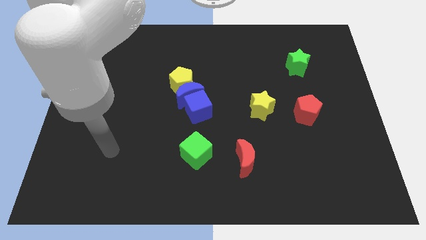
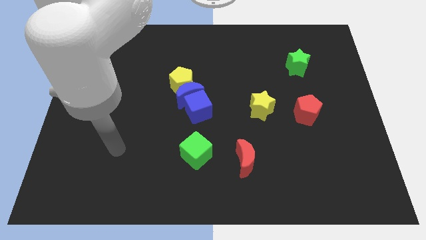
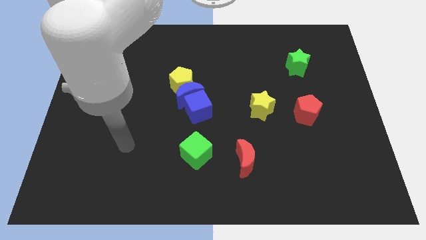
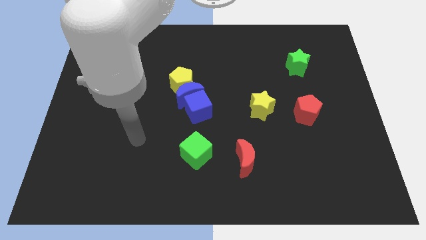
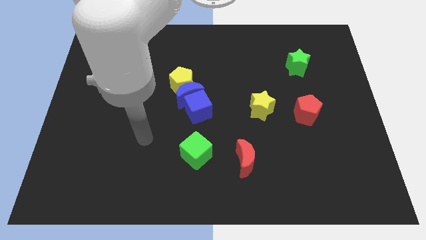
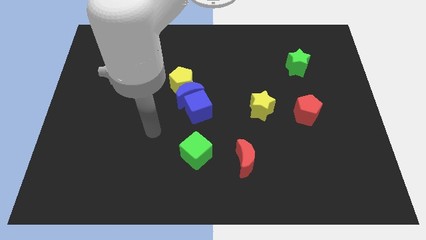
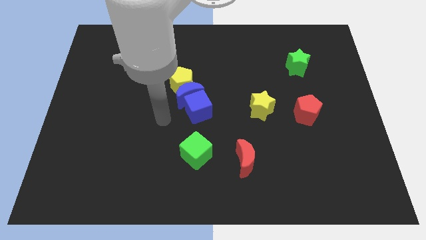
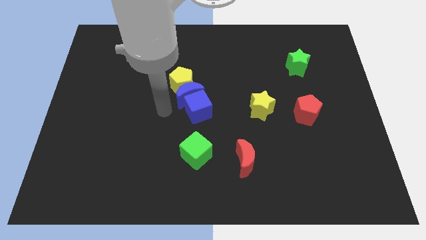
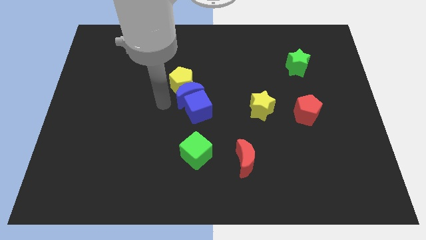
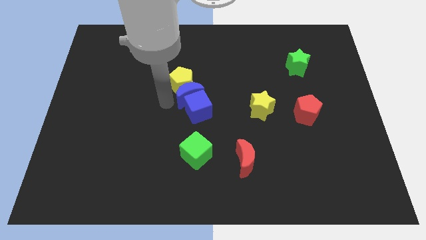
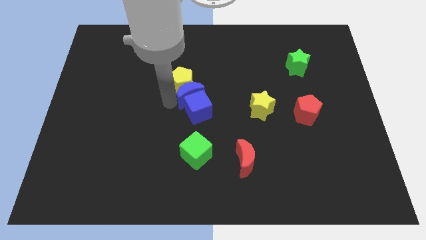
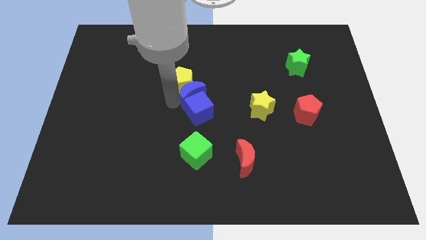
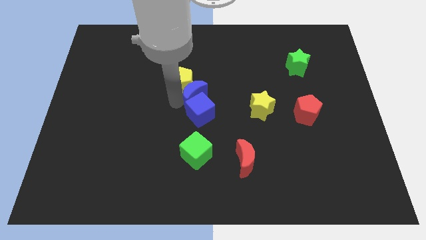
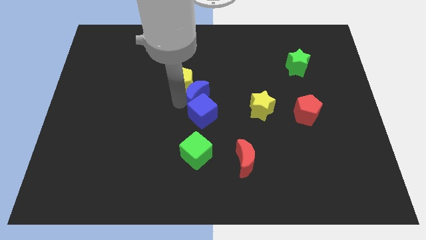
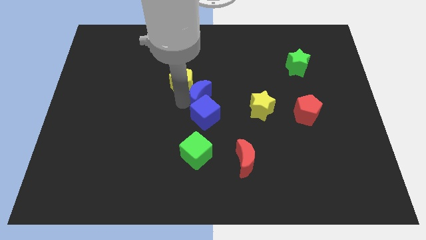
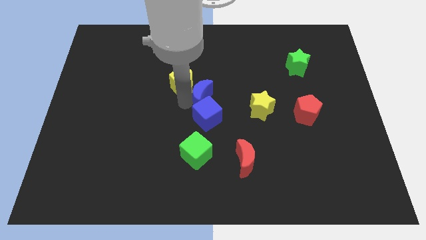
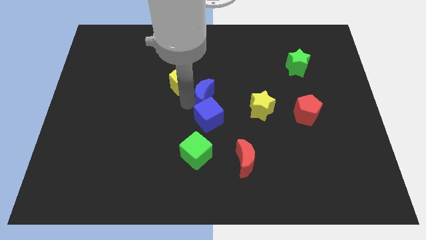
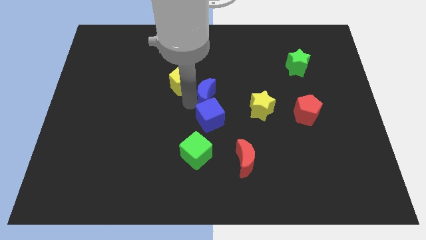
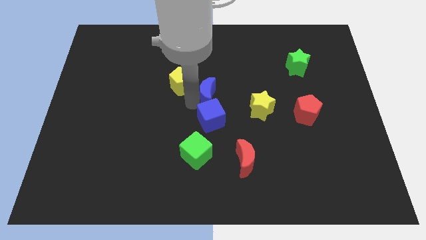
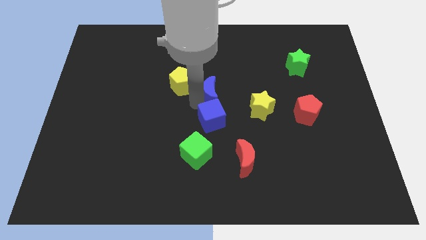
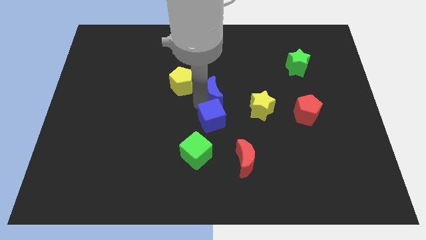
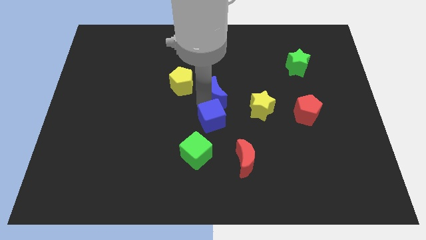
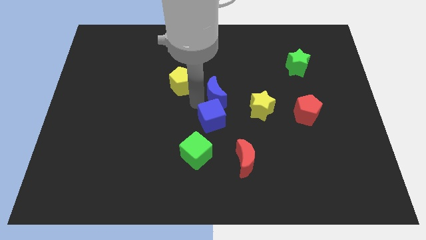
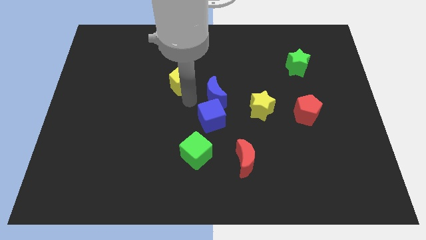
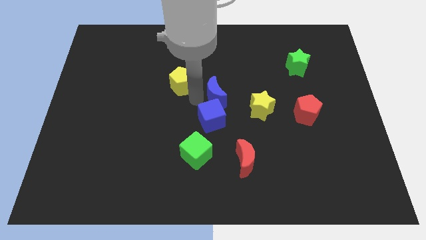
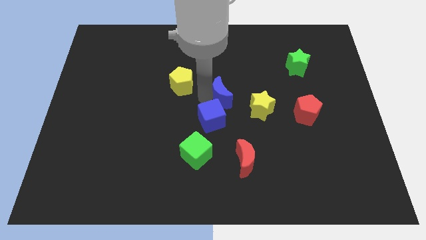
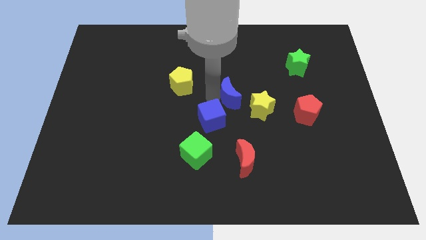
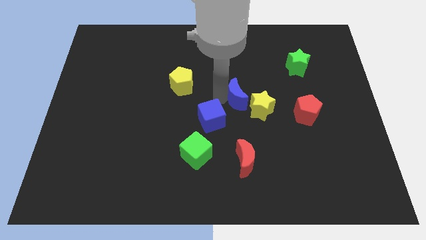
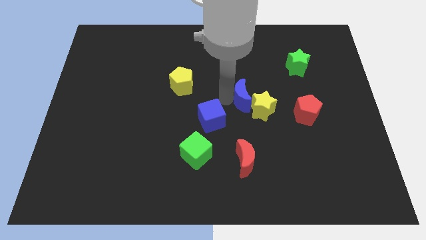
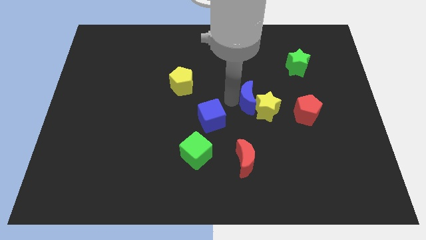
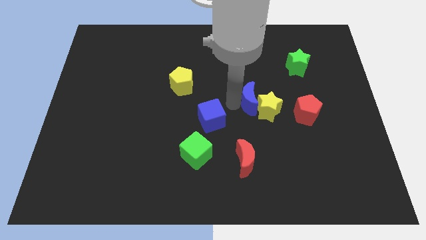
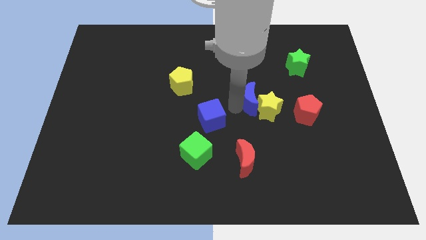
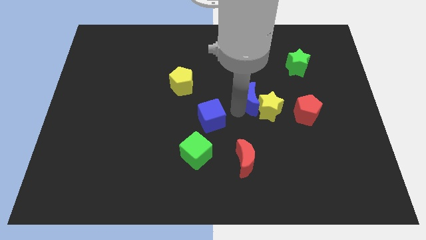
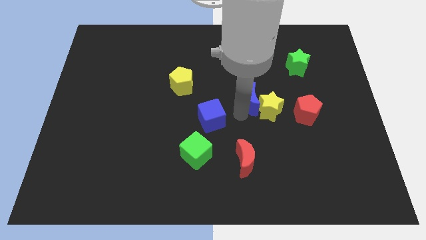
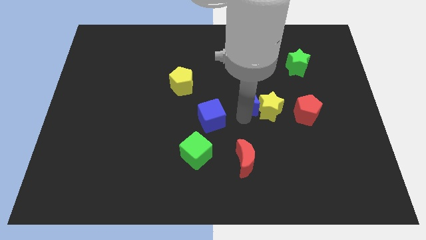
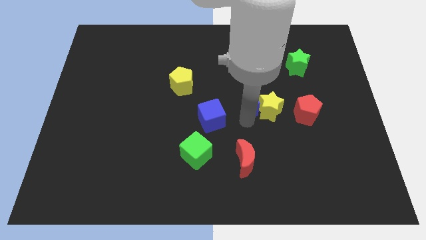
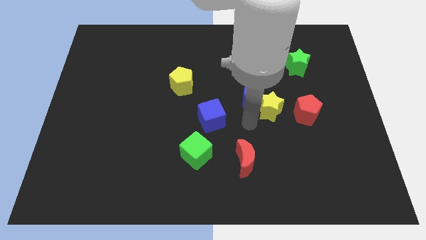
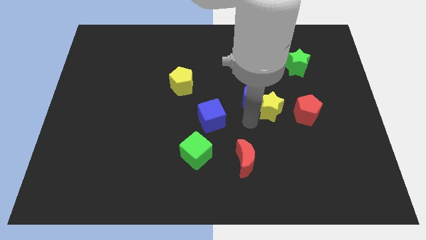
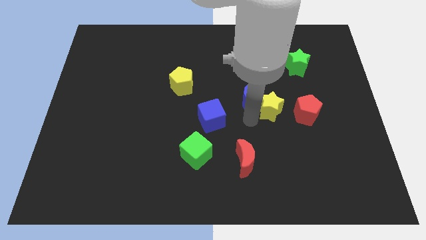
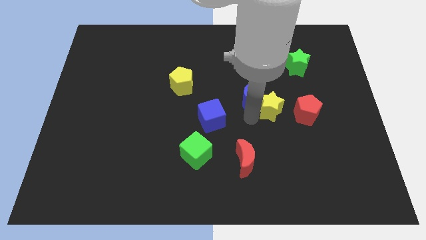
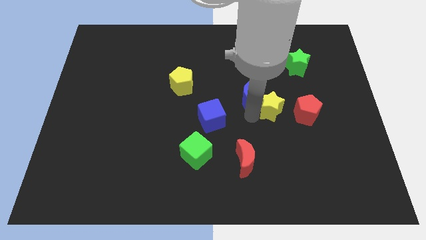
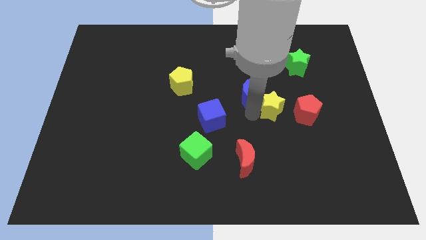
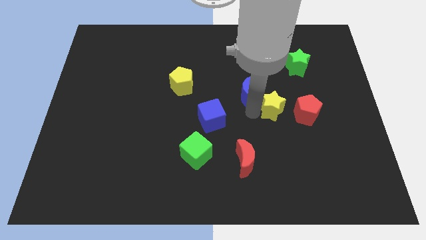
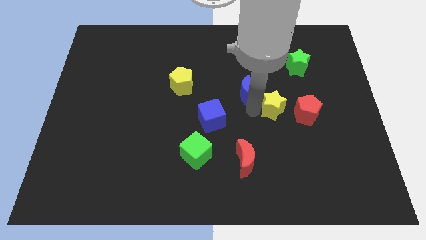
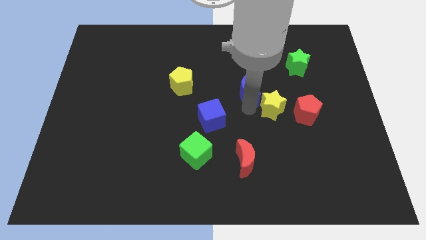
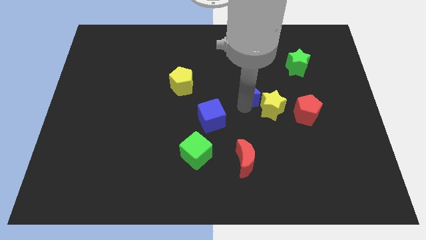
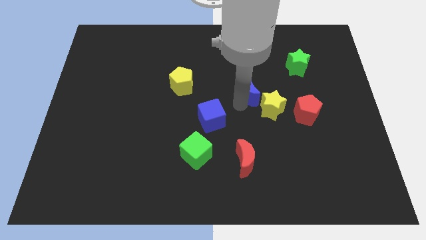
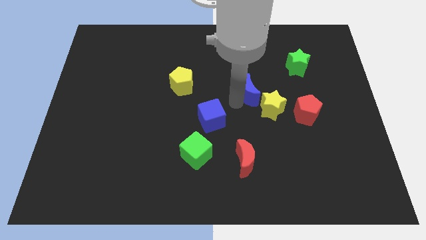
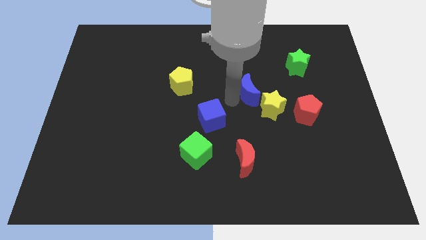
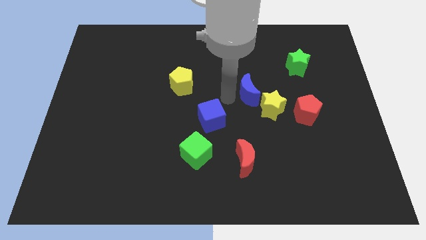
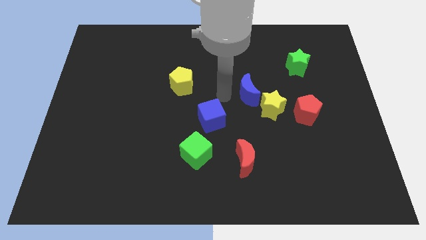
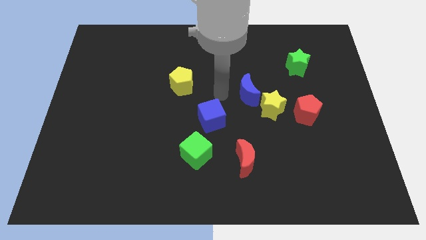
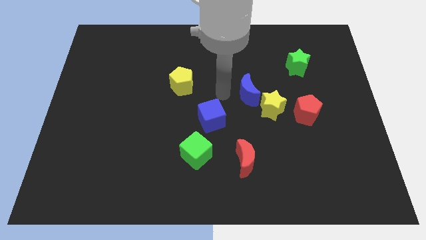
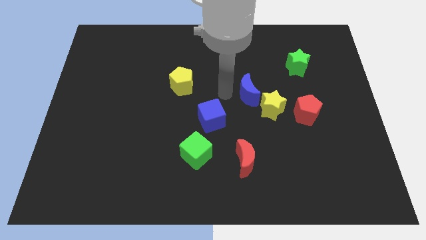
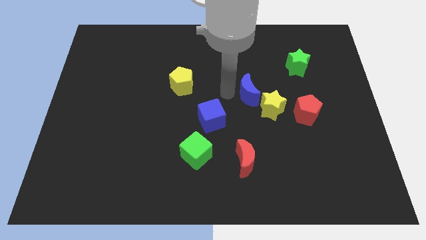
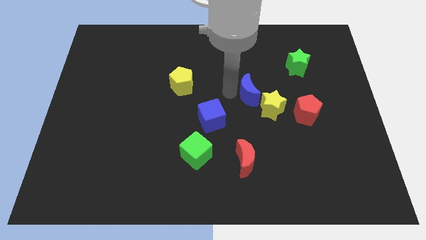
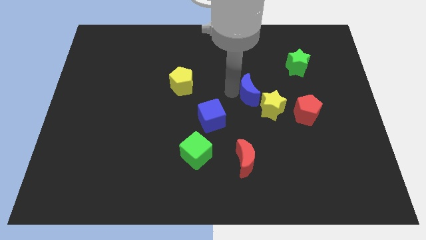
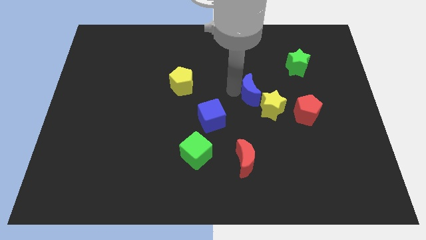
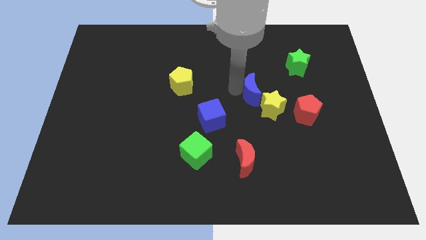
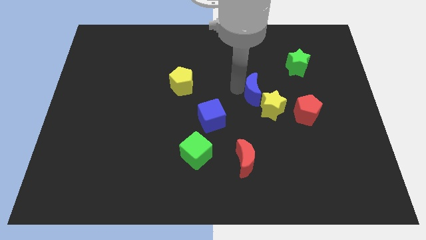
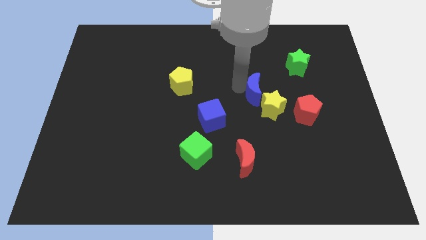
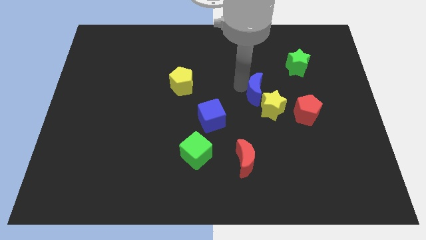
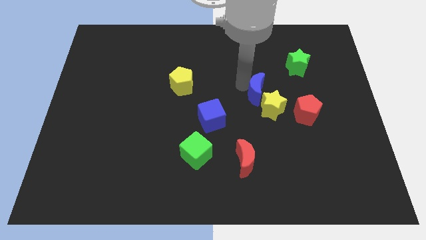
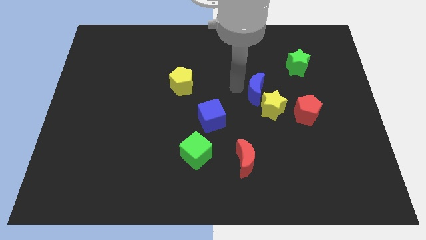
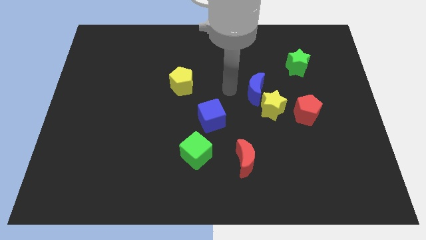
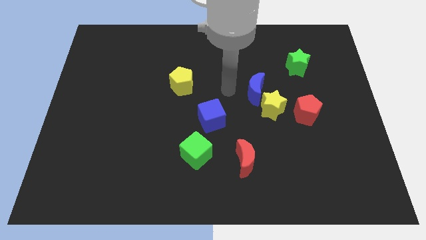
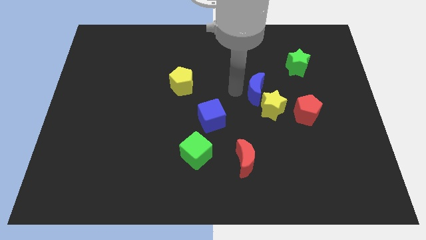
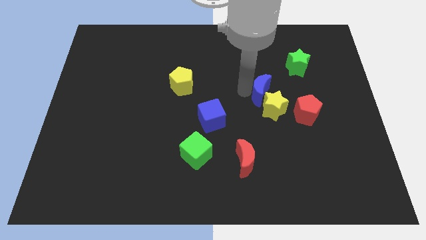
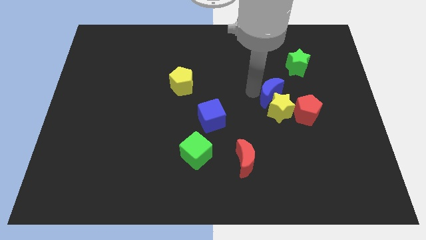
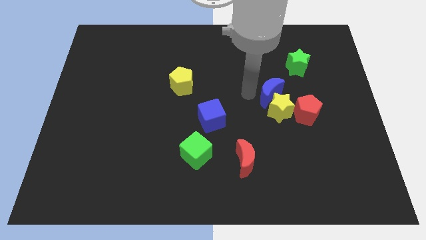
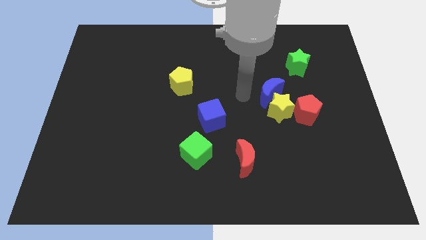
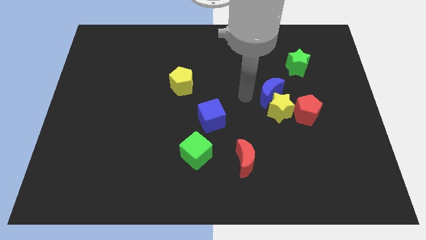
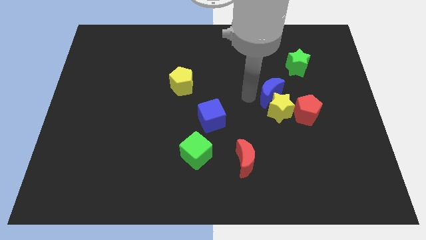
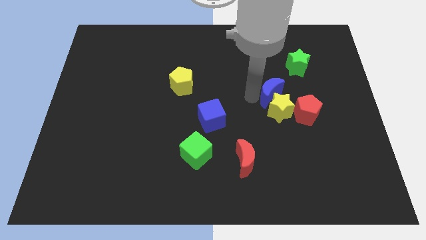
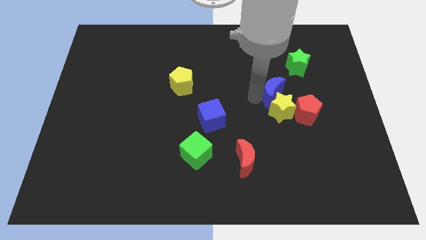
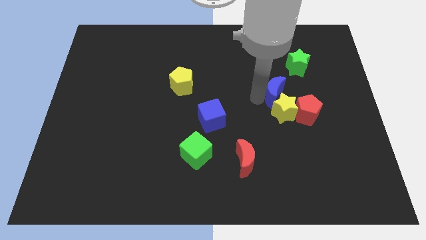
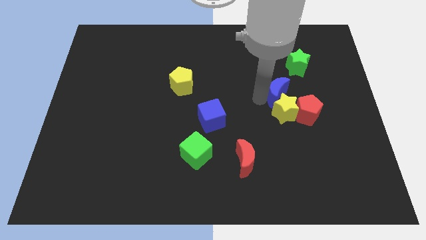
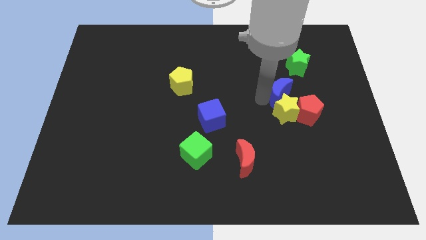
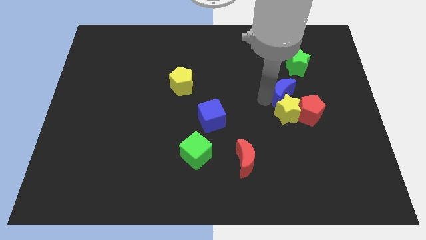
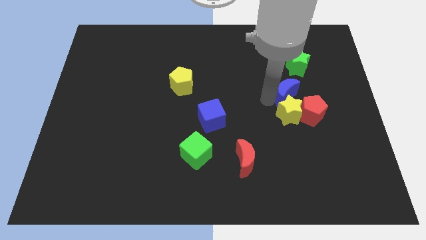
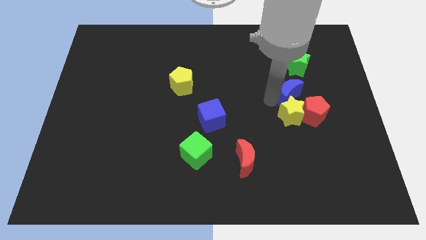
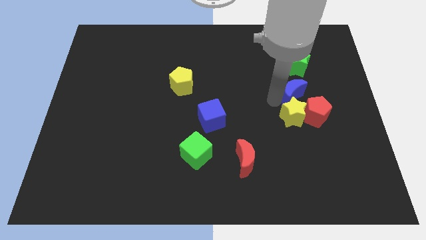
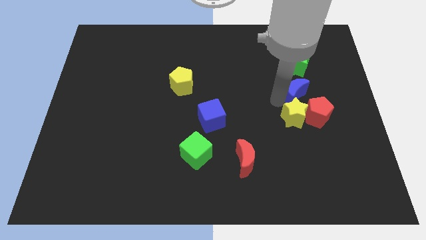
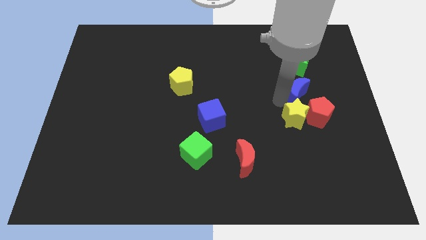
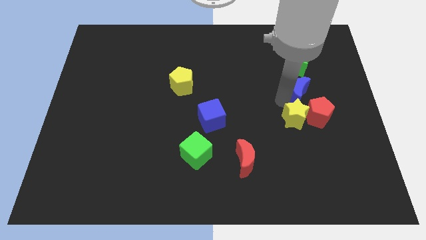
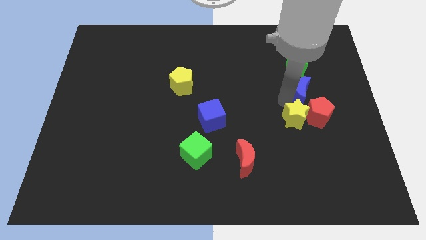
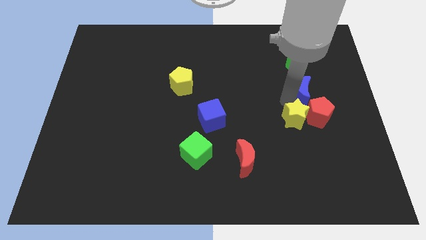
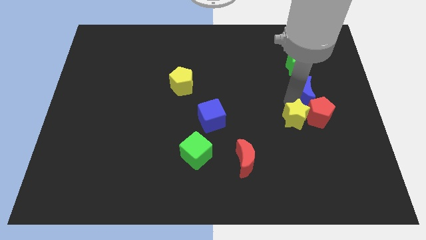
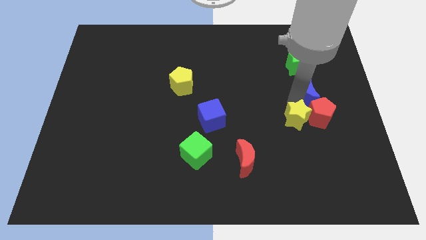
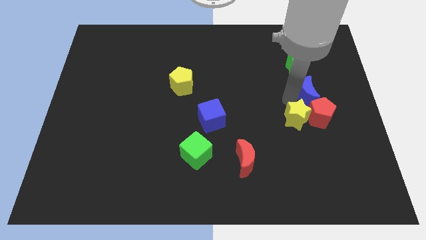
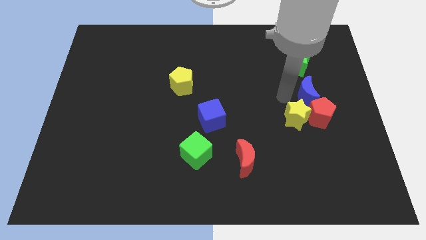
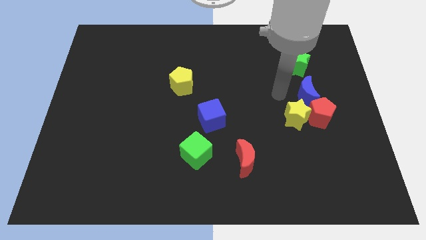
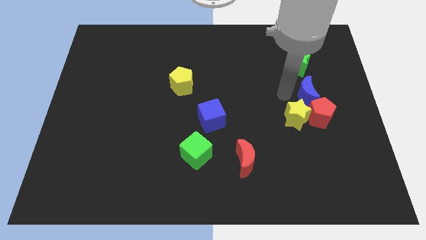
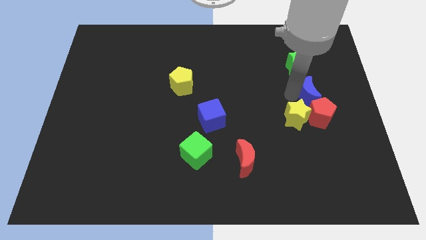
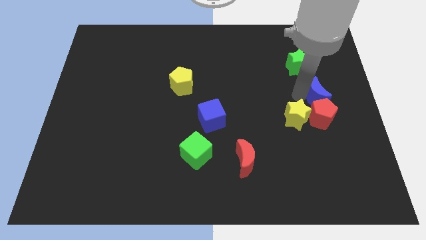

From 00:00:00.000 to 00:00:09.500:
put the blue moon to the top right side of the red pentagon
